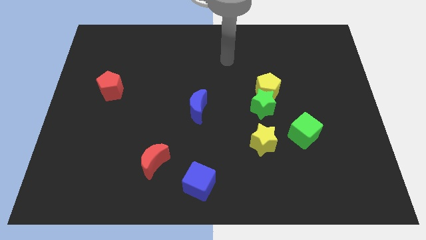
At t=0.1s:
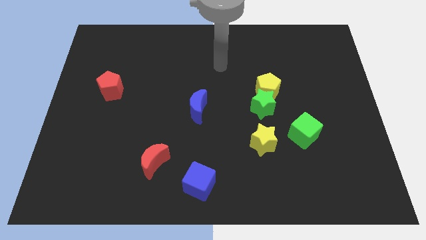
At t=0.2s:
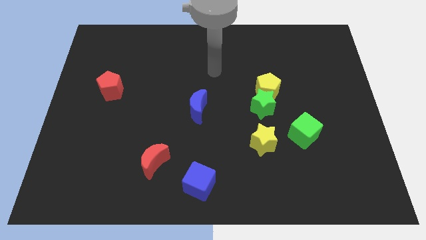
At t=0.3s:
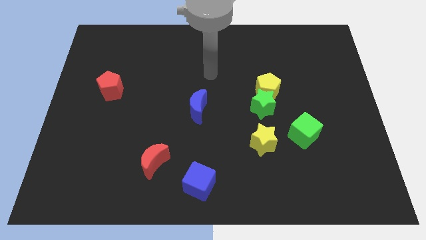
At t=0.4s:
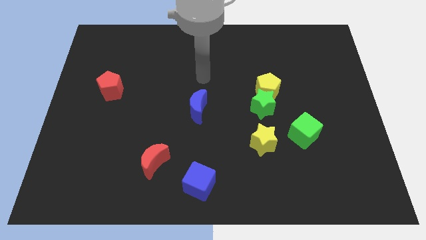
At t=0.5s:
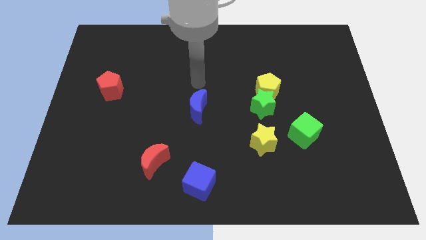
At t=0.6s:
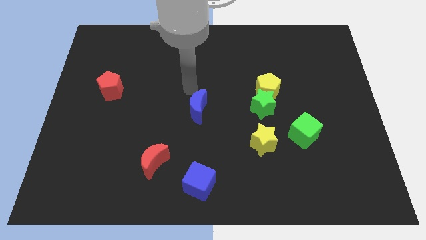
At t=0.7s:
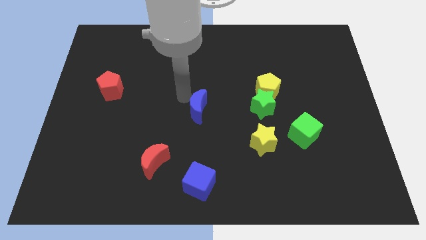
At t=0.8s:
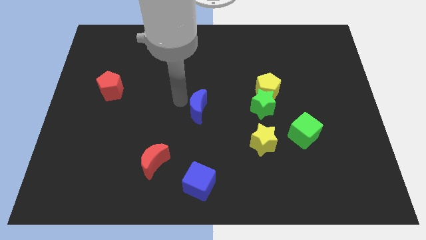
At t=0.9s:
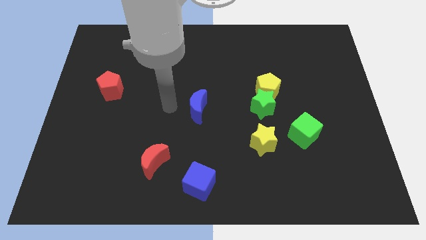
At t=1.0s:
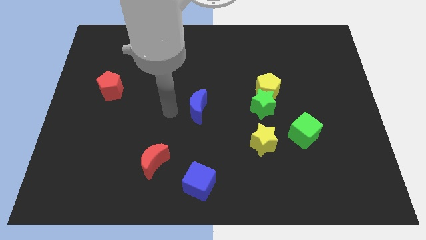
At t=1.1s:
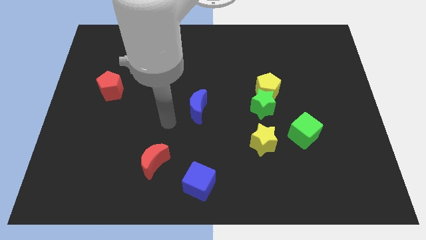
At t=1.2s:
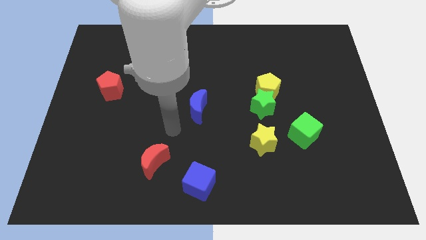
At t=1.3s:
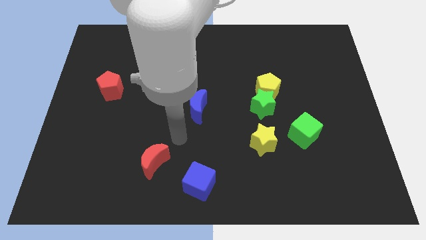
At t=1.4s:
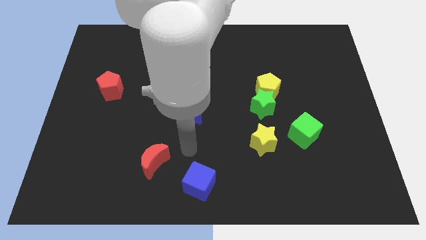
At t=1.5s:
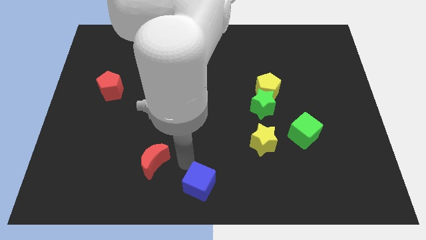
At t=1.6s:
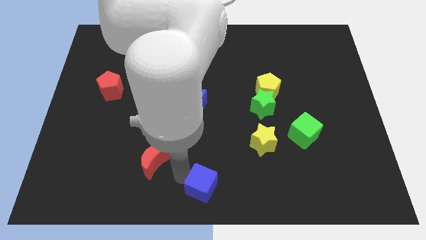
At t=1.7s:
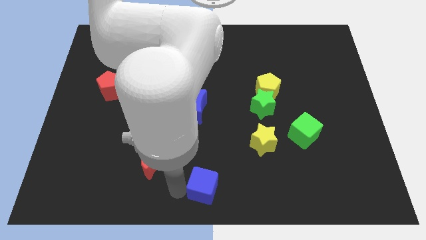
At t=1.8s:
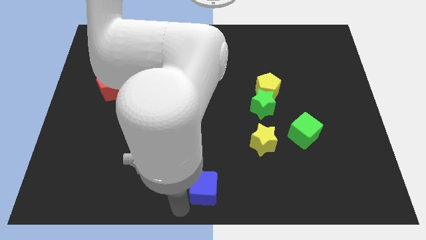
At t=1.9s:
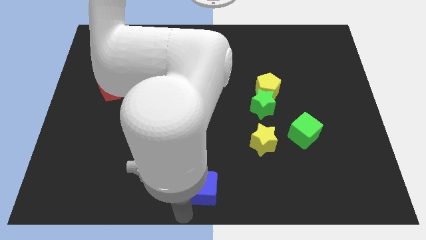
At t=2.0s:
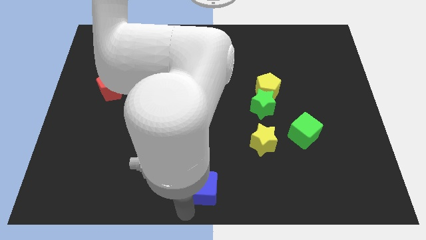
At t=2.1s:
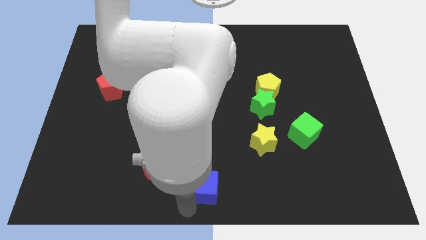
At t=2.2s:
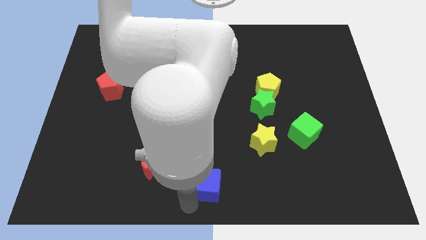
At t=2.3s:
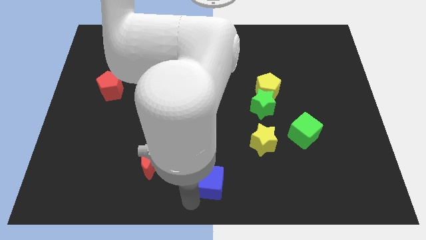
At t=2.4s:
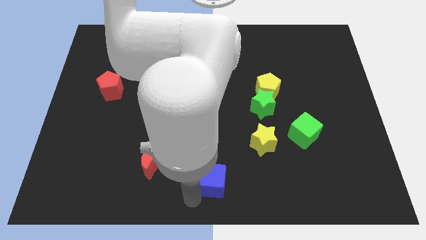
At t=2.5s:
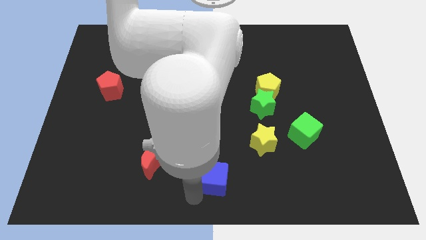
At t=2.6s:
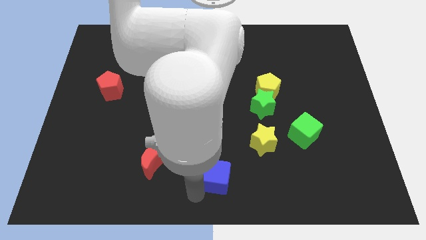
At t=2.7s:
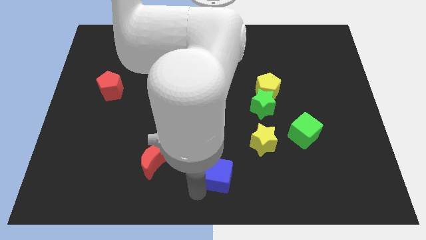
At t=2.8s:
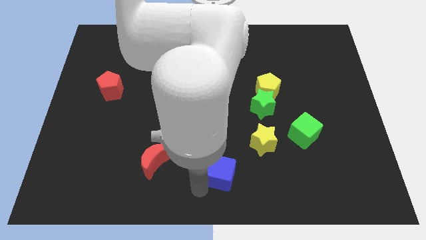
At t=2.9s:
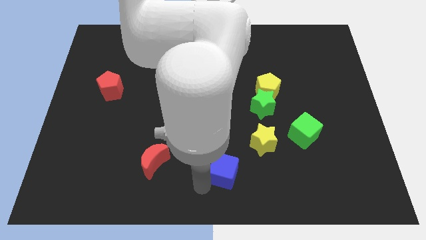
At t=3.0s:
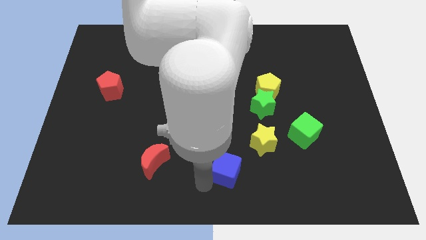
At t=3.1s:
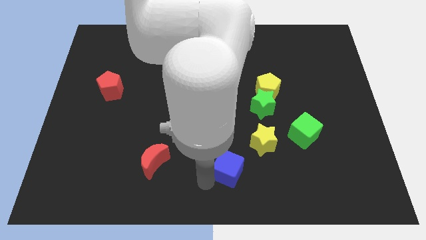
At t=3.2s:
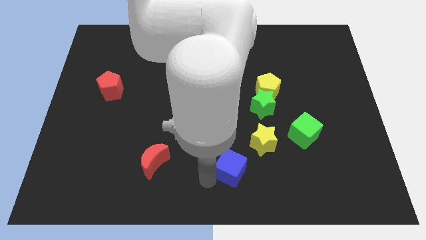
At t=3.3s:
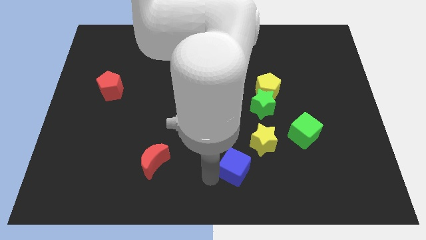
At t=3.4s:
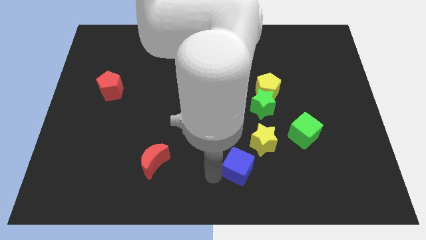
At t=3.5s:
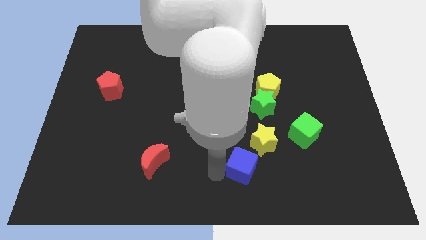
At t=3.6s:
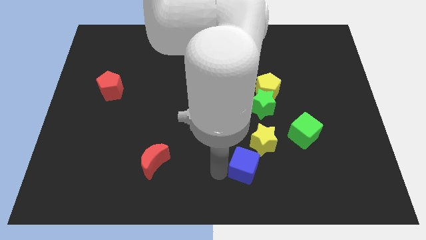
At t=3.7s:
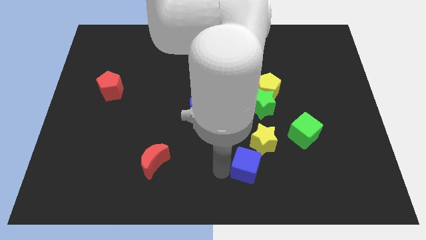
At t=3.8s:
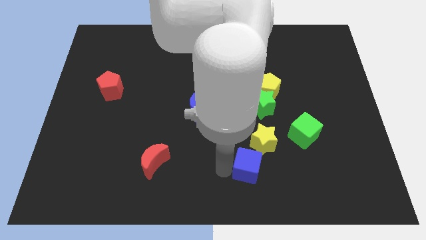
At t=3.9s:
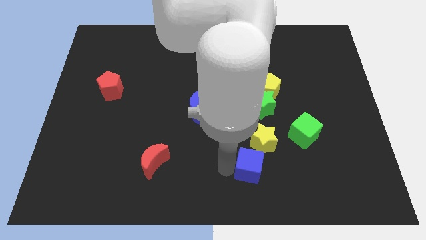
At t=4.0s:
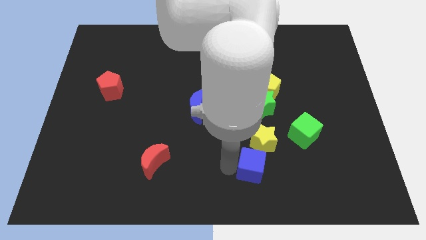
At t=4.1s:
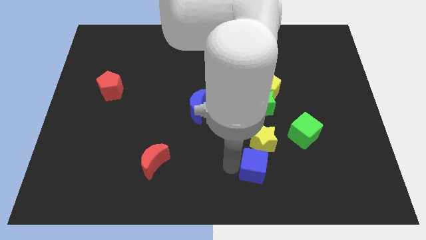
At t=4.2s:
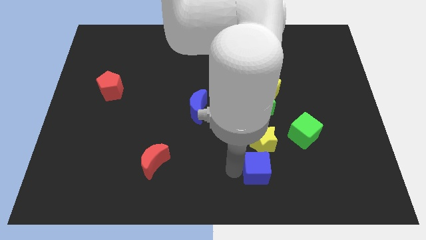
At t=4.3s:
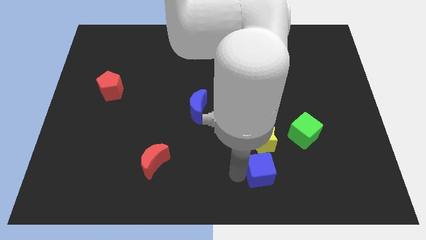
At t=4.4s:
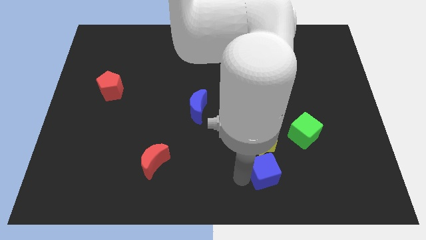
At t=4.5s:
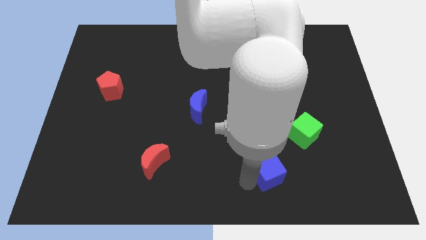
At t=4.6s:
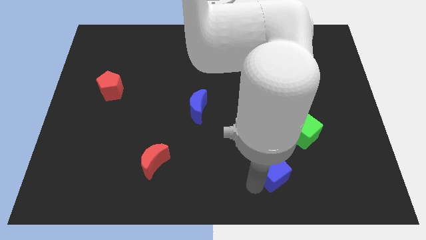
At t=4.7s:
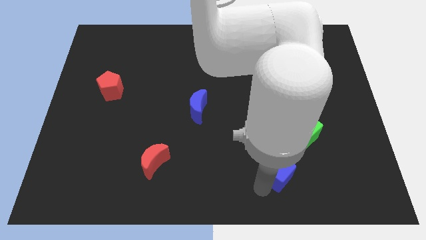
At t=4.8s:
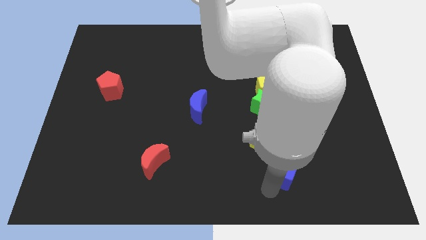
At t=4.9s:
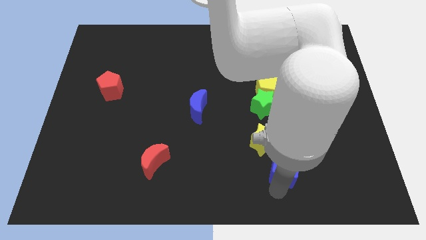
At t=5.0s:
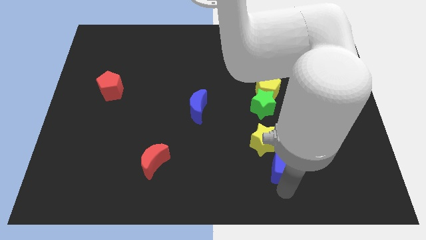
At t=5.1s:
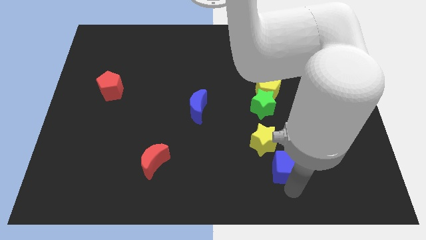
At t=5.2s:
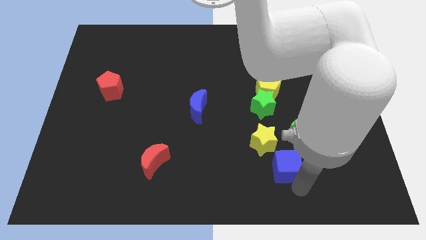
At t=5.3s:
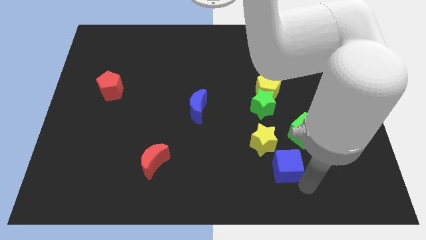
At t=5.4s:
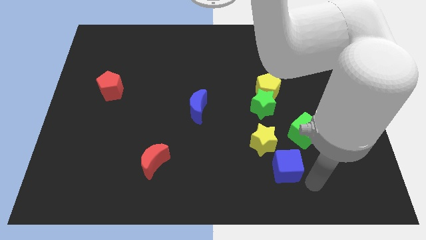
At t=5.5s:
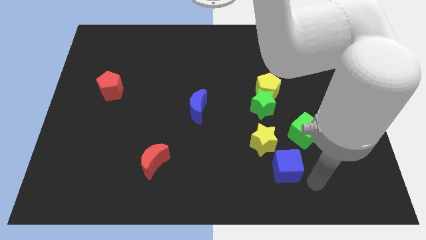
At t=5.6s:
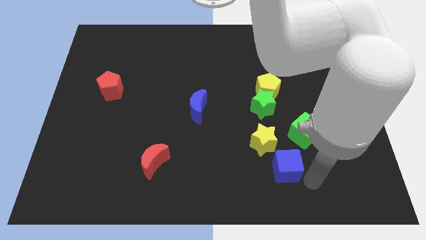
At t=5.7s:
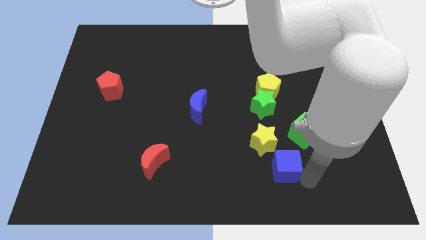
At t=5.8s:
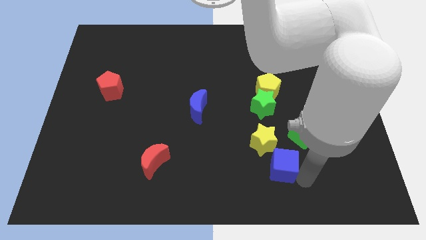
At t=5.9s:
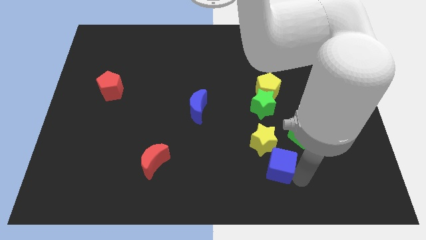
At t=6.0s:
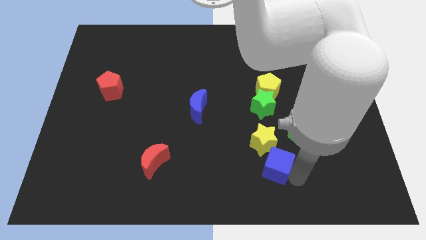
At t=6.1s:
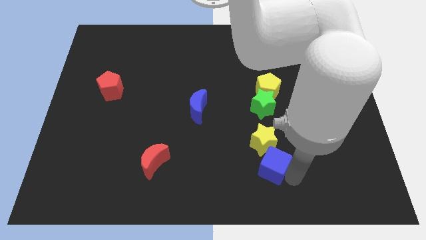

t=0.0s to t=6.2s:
push the blue cube to the yellow star

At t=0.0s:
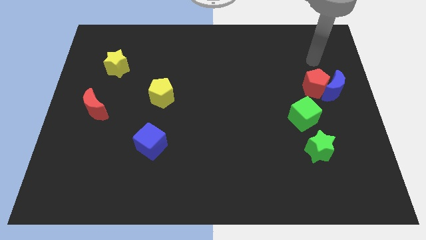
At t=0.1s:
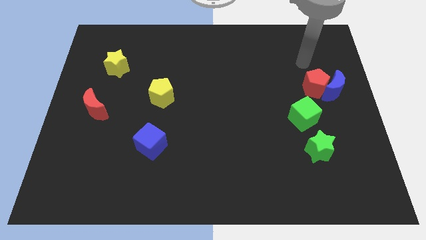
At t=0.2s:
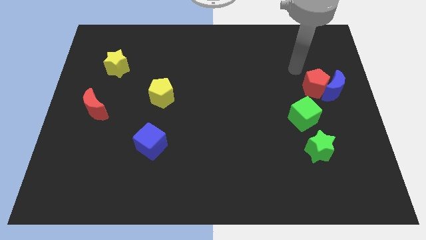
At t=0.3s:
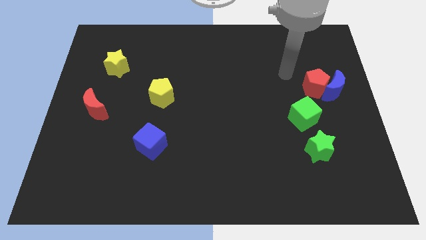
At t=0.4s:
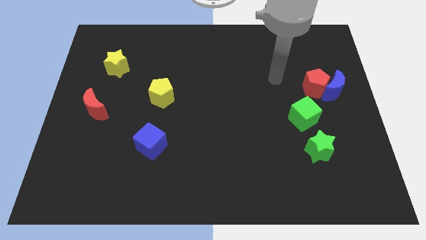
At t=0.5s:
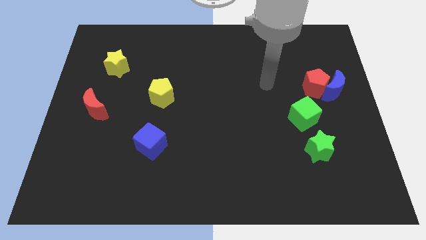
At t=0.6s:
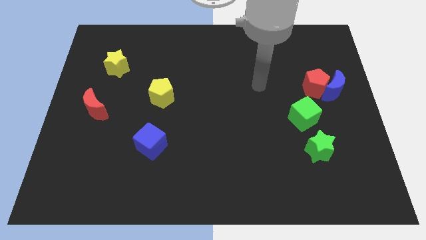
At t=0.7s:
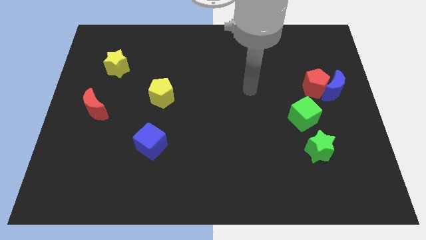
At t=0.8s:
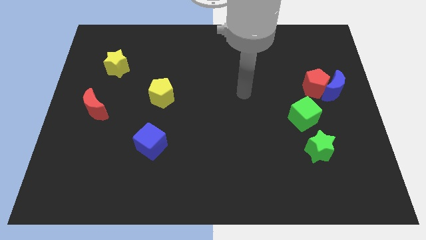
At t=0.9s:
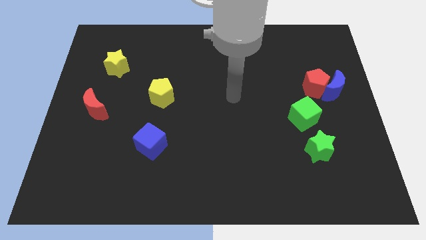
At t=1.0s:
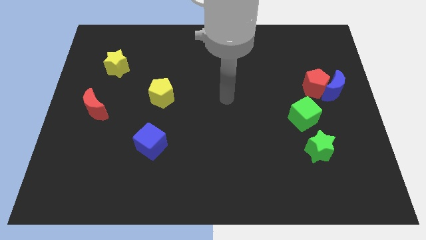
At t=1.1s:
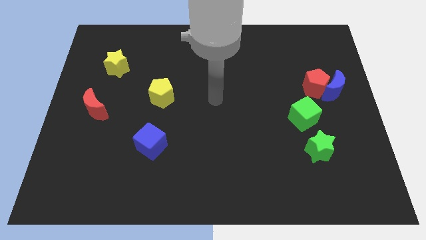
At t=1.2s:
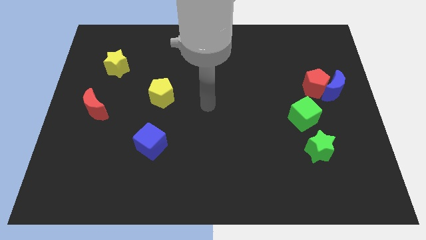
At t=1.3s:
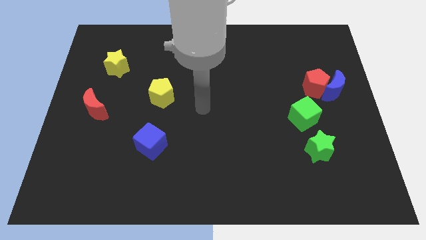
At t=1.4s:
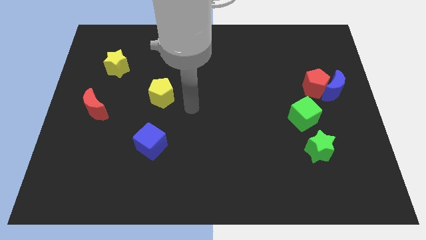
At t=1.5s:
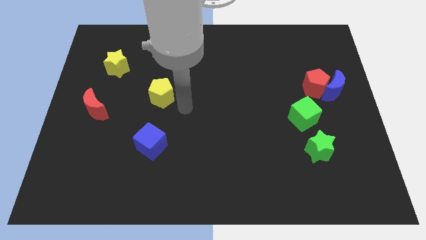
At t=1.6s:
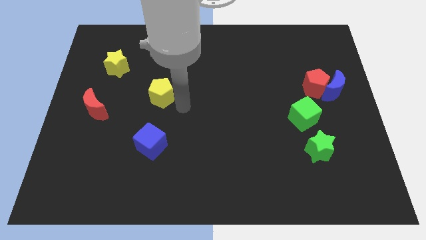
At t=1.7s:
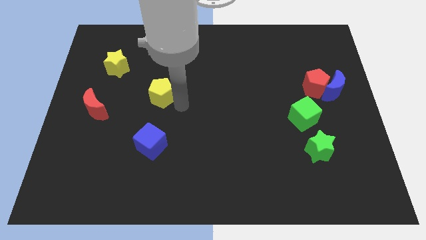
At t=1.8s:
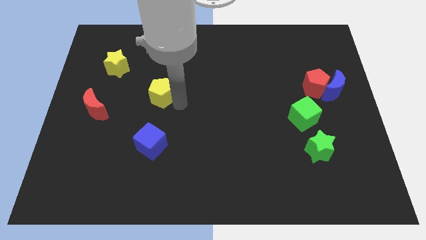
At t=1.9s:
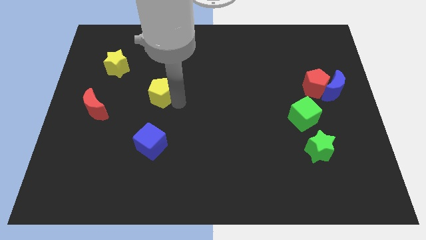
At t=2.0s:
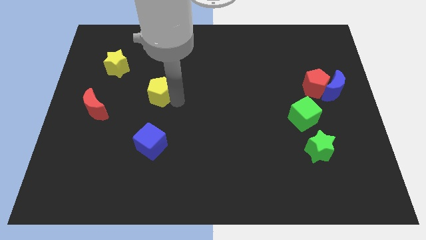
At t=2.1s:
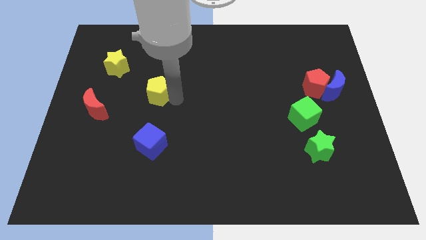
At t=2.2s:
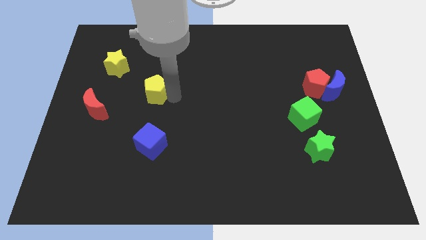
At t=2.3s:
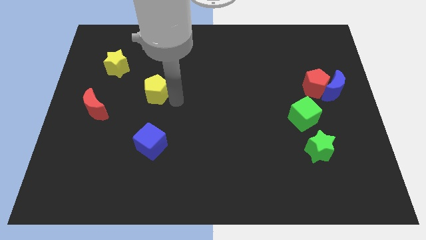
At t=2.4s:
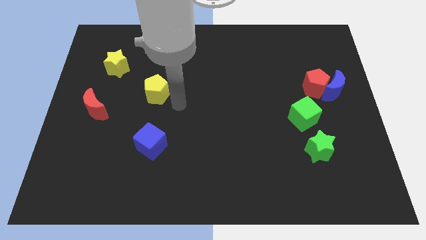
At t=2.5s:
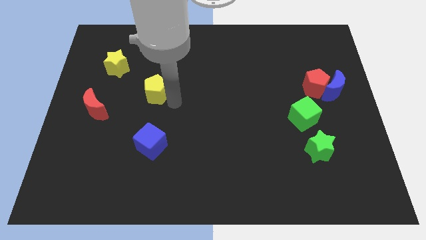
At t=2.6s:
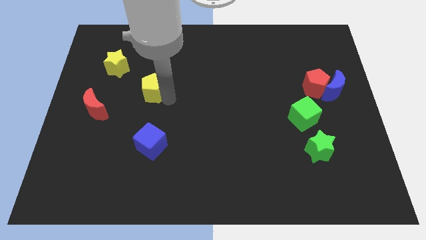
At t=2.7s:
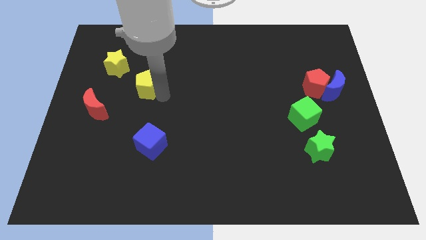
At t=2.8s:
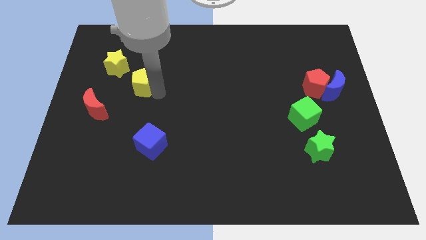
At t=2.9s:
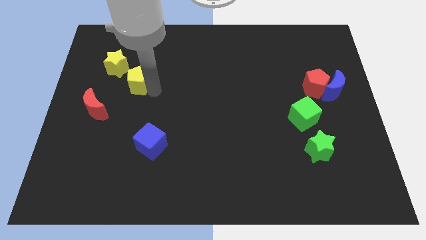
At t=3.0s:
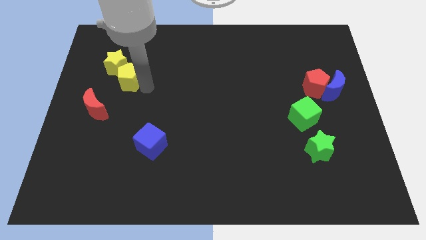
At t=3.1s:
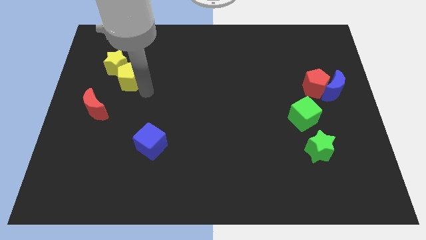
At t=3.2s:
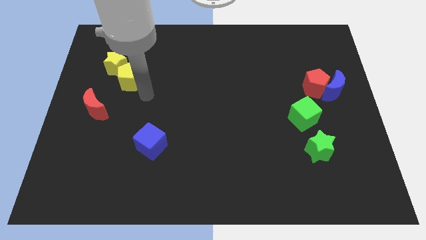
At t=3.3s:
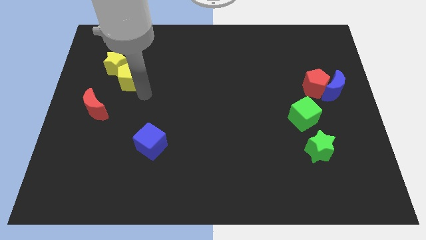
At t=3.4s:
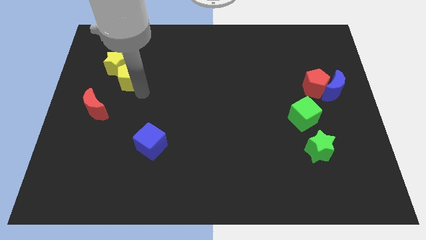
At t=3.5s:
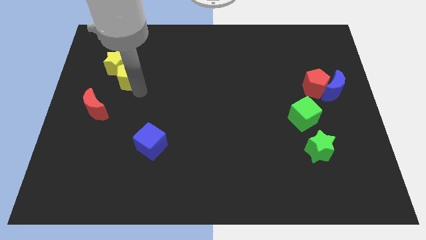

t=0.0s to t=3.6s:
put the yellow pentagon towards the yellow star
